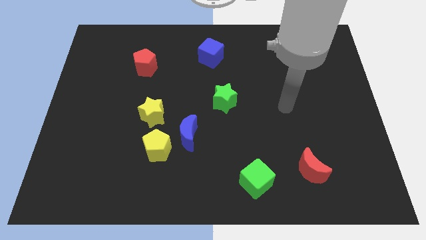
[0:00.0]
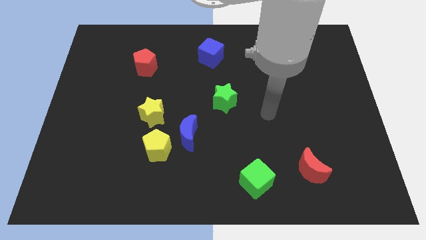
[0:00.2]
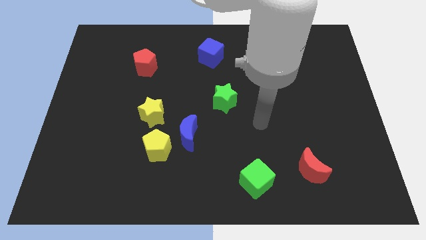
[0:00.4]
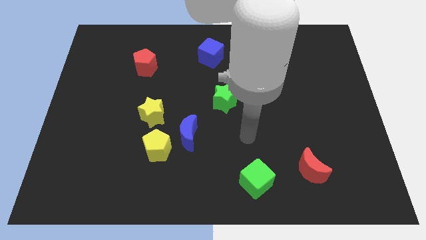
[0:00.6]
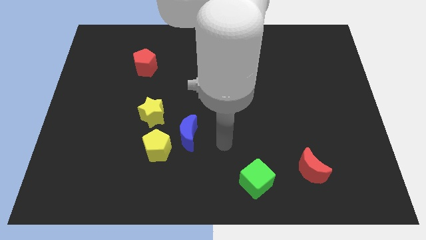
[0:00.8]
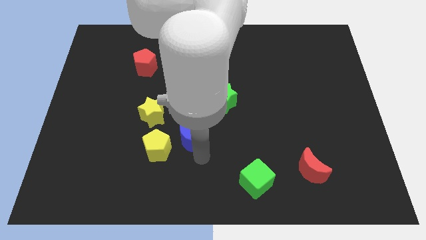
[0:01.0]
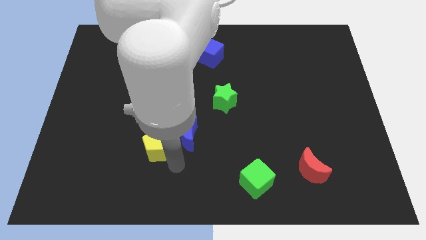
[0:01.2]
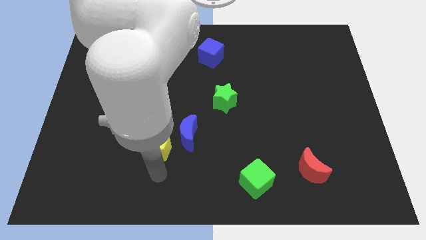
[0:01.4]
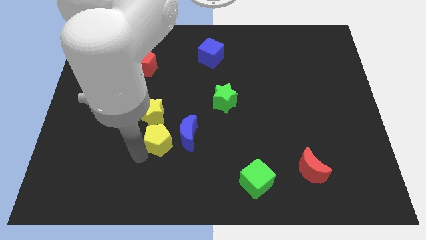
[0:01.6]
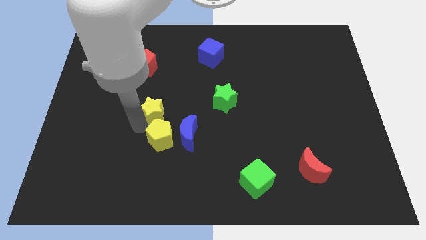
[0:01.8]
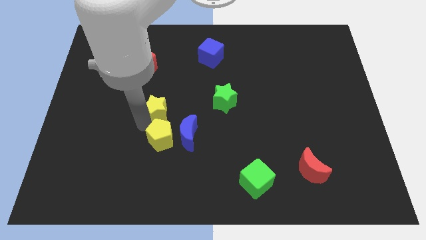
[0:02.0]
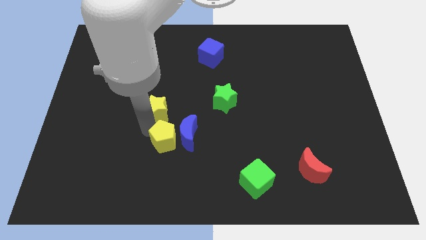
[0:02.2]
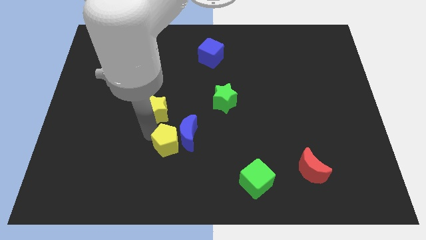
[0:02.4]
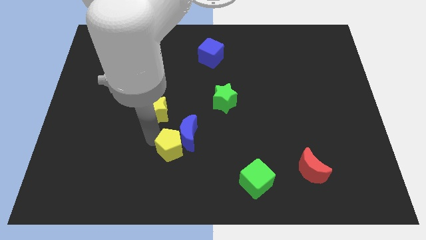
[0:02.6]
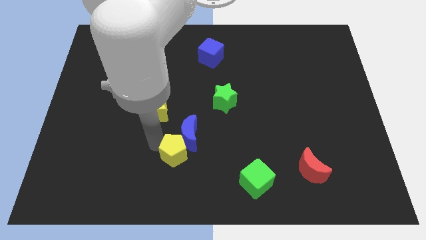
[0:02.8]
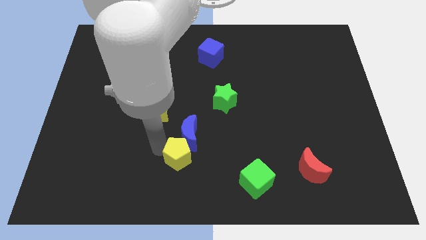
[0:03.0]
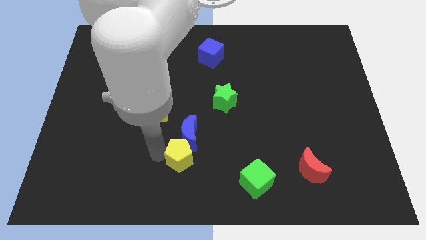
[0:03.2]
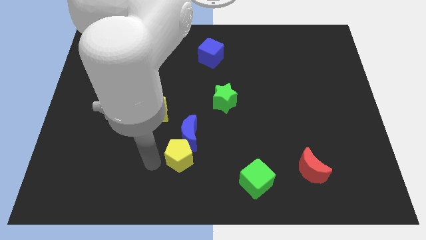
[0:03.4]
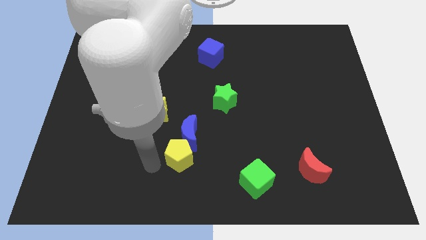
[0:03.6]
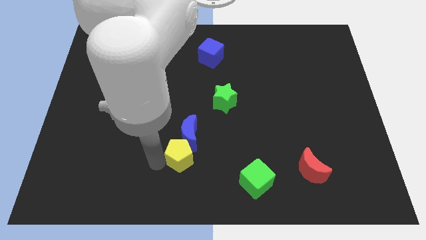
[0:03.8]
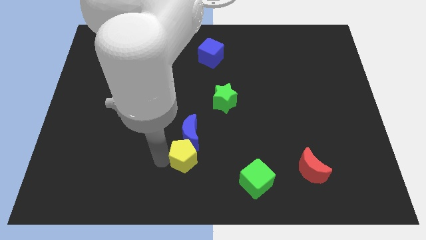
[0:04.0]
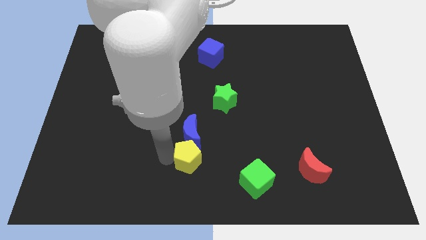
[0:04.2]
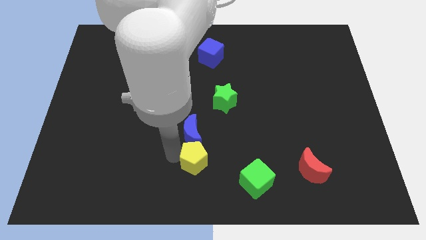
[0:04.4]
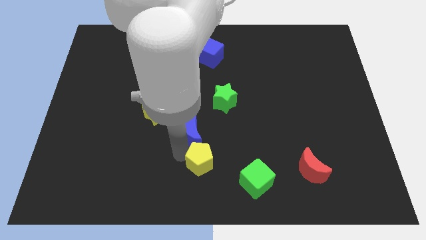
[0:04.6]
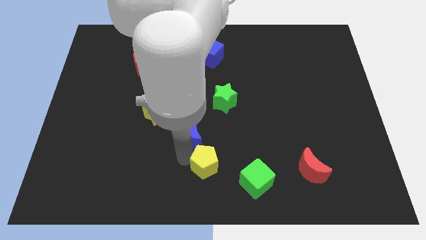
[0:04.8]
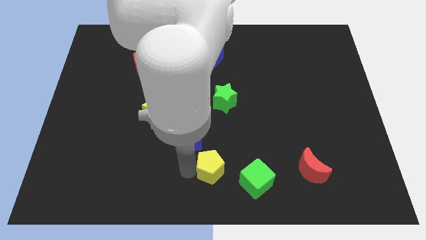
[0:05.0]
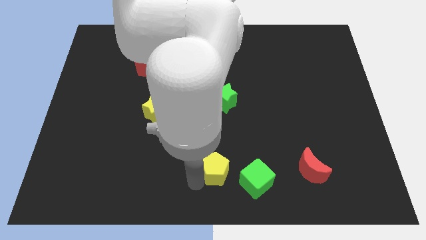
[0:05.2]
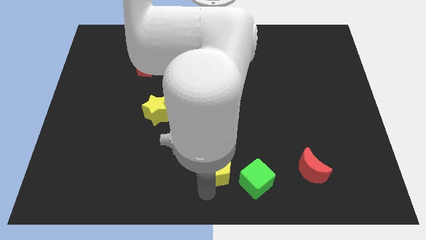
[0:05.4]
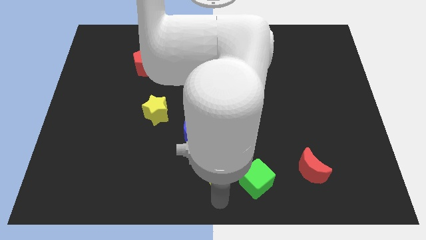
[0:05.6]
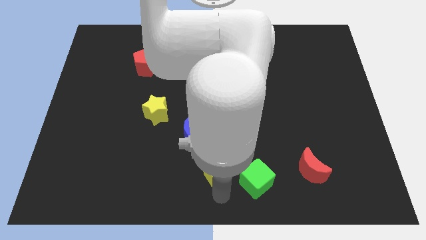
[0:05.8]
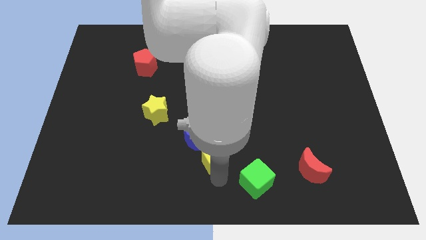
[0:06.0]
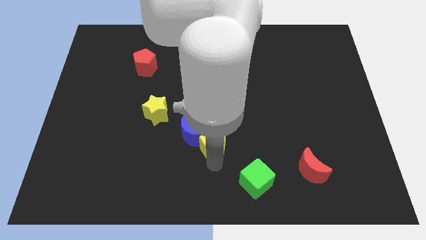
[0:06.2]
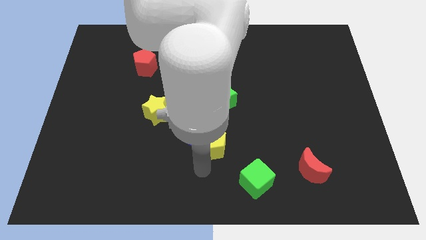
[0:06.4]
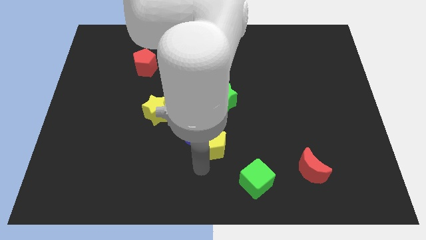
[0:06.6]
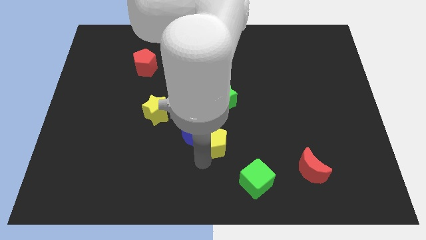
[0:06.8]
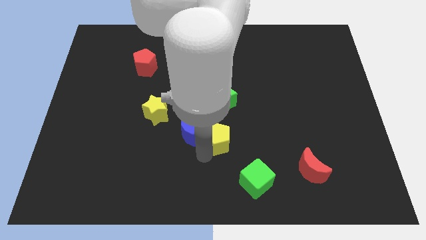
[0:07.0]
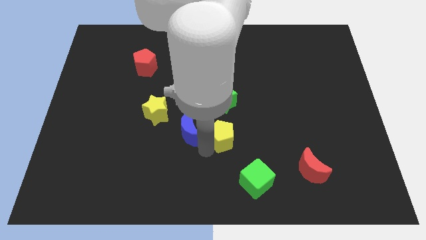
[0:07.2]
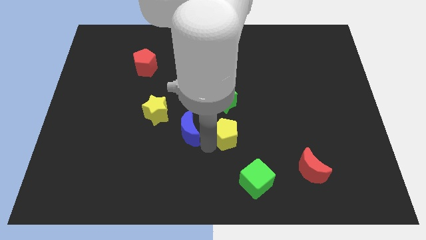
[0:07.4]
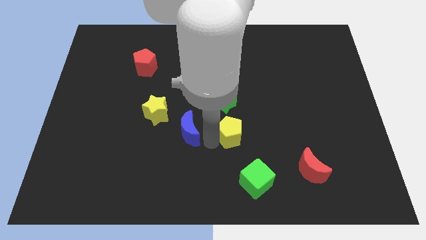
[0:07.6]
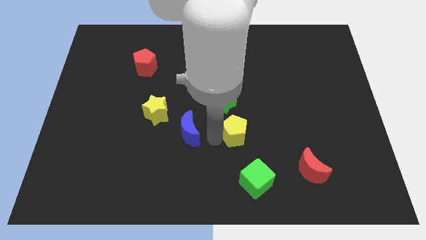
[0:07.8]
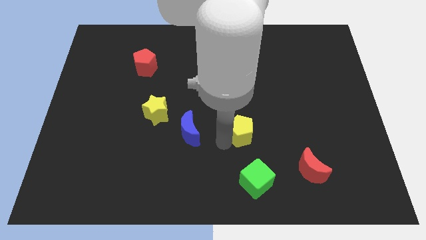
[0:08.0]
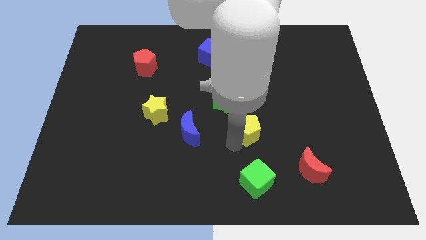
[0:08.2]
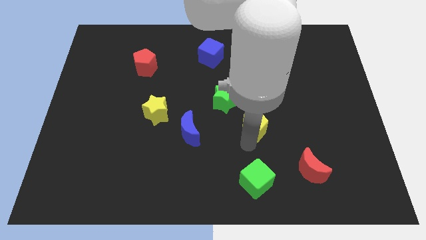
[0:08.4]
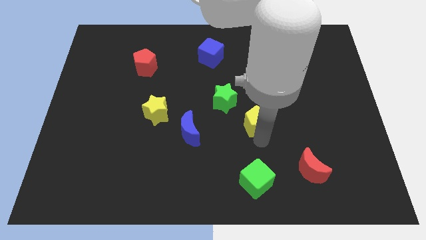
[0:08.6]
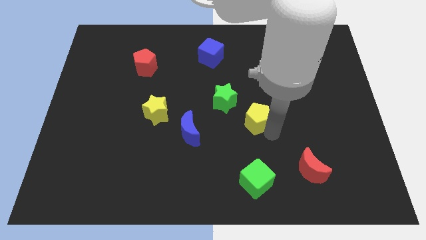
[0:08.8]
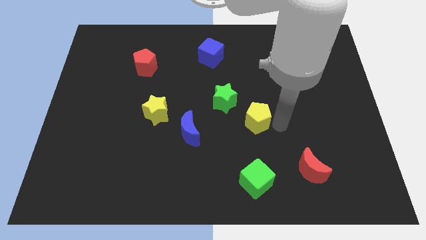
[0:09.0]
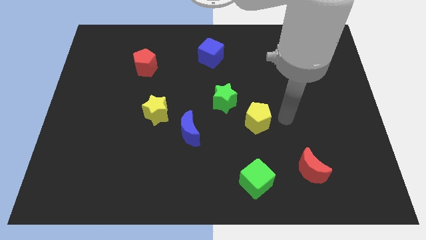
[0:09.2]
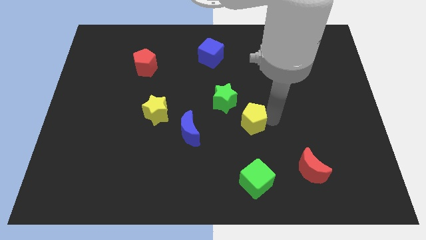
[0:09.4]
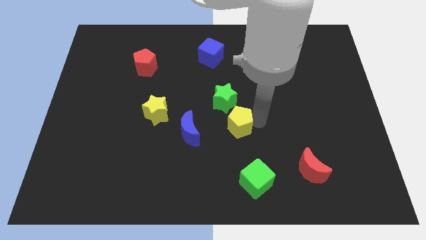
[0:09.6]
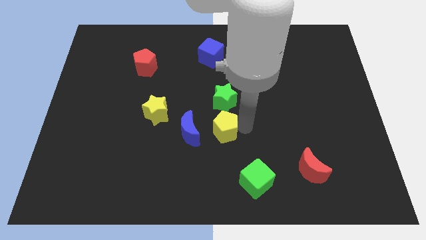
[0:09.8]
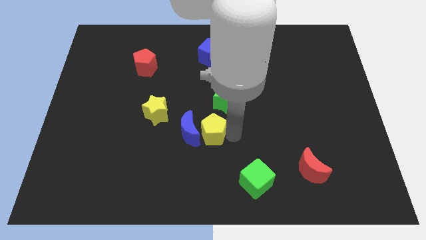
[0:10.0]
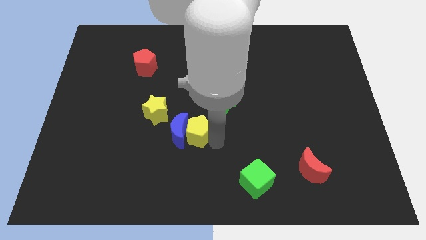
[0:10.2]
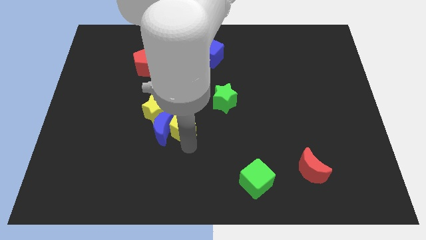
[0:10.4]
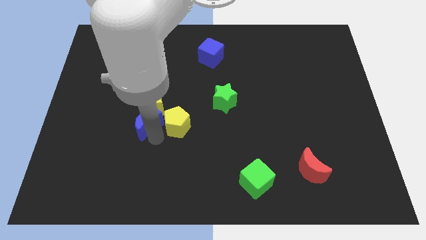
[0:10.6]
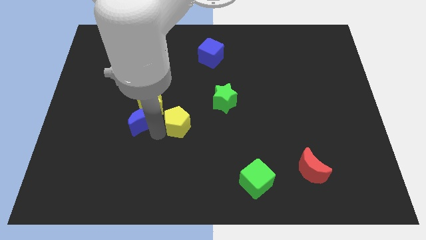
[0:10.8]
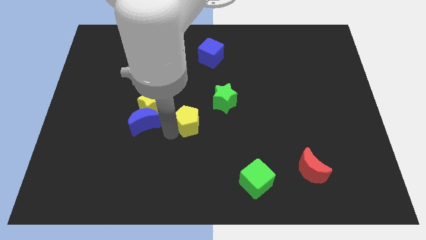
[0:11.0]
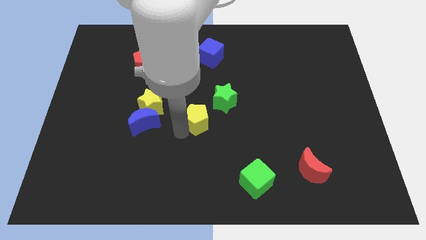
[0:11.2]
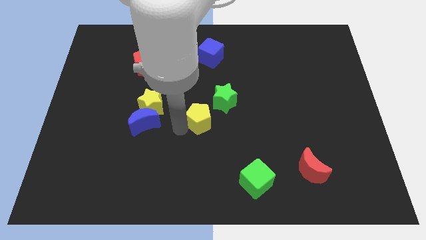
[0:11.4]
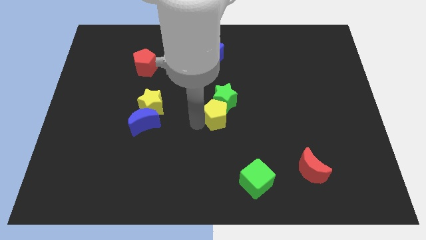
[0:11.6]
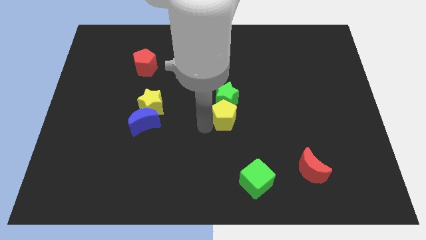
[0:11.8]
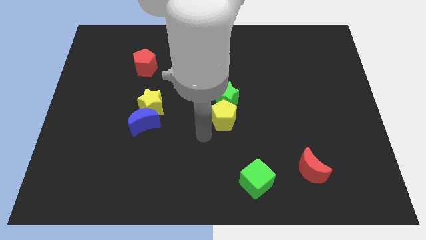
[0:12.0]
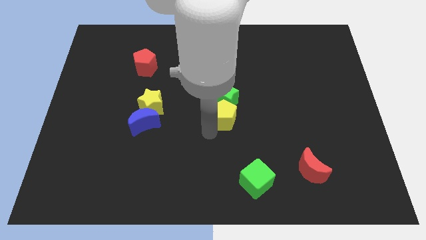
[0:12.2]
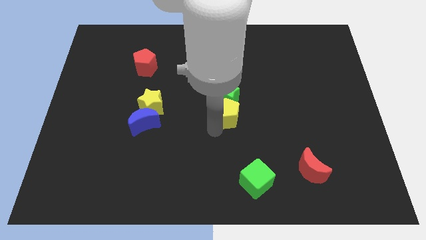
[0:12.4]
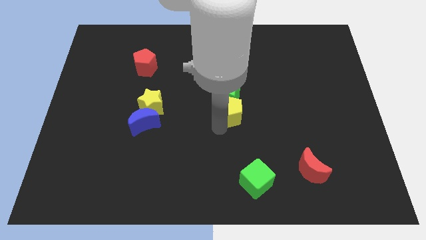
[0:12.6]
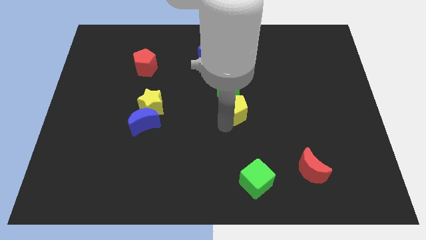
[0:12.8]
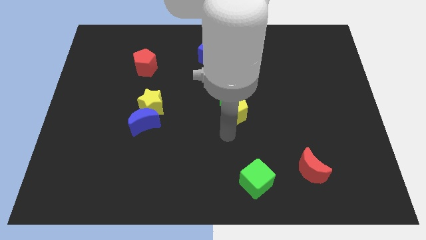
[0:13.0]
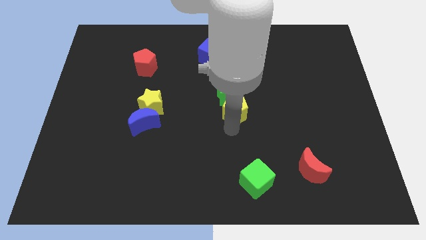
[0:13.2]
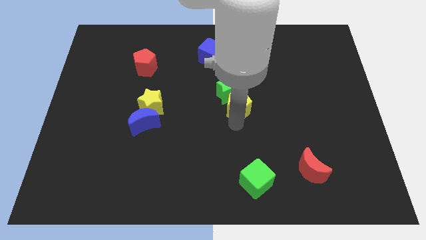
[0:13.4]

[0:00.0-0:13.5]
push the yellow pentagon diagonally upwards and right

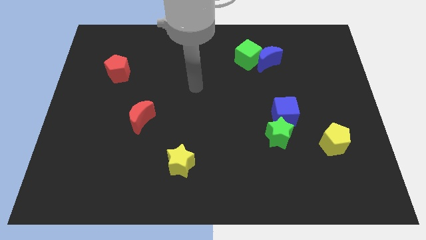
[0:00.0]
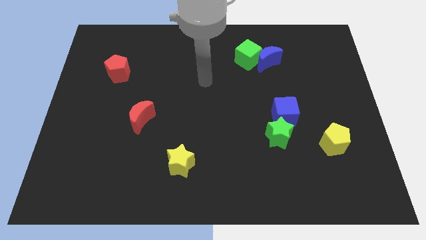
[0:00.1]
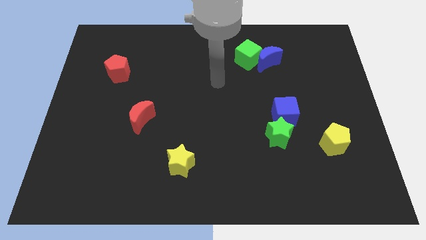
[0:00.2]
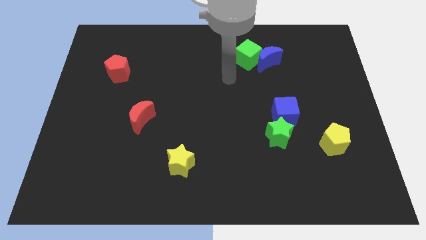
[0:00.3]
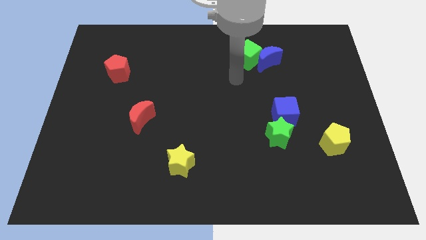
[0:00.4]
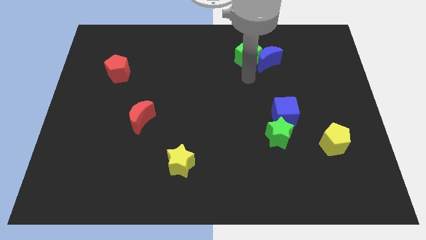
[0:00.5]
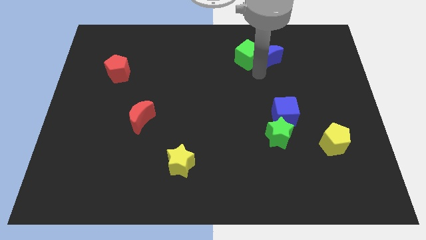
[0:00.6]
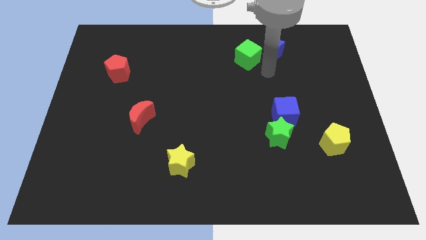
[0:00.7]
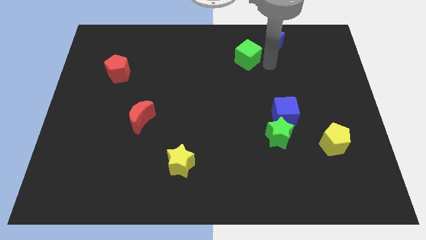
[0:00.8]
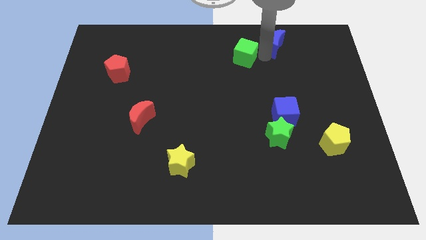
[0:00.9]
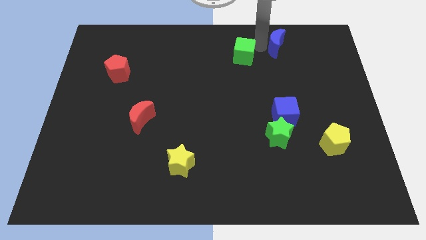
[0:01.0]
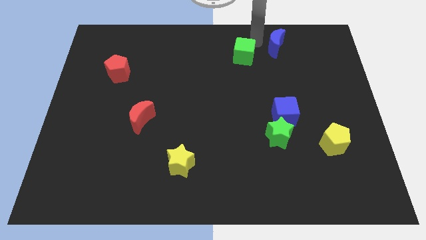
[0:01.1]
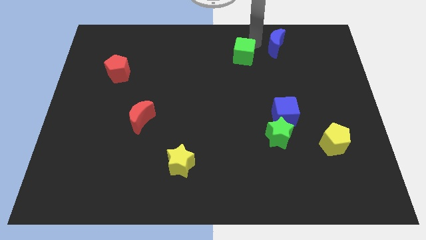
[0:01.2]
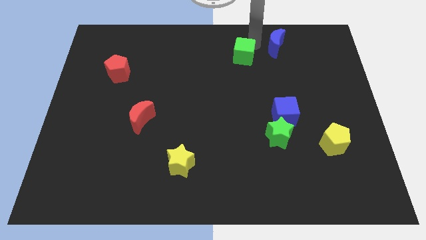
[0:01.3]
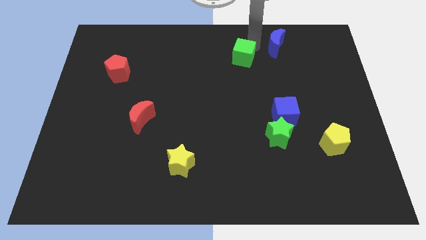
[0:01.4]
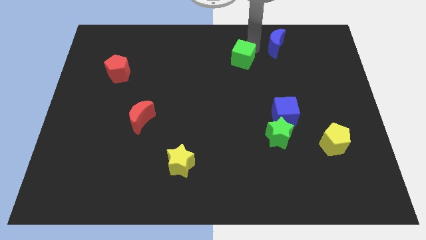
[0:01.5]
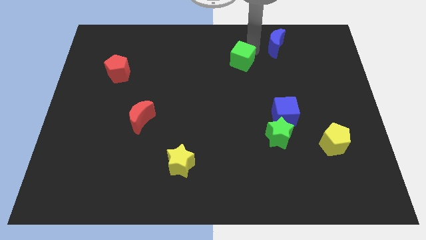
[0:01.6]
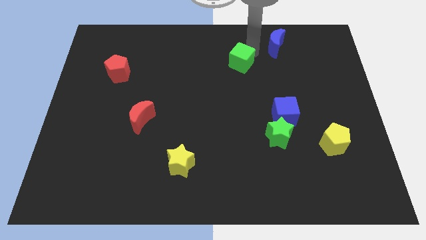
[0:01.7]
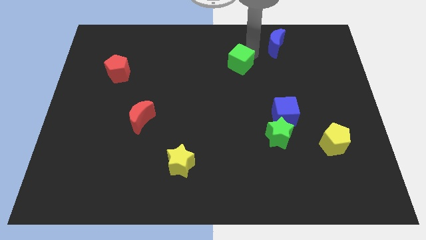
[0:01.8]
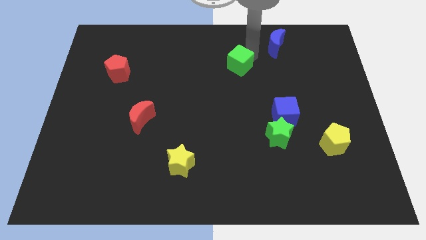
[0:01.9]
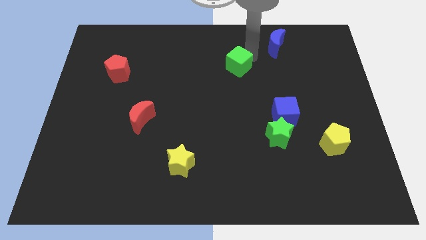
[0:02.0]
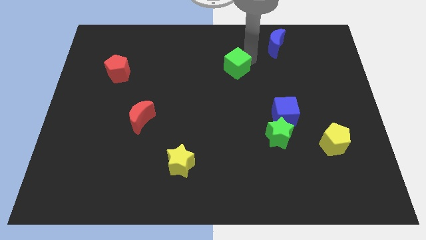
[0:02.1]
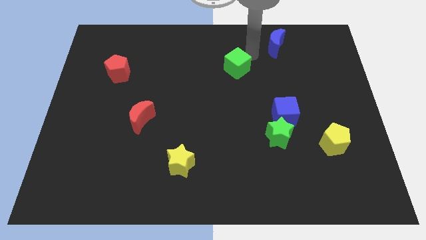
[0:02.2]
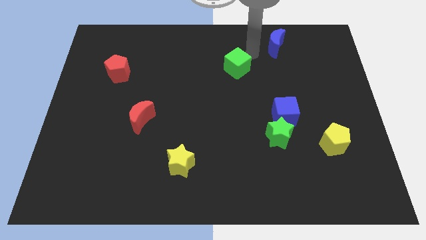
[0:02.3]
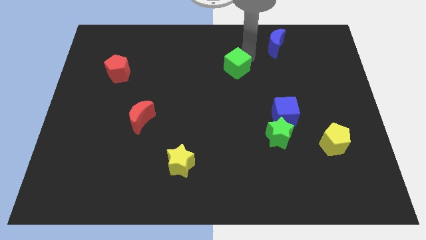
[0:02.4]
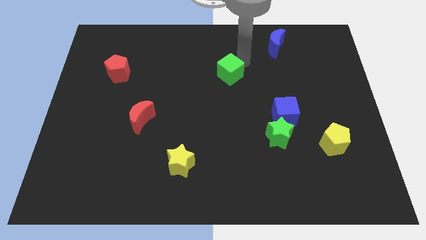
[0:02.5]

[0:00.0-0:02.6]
push the green cube down and to the left a bit
